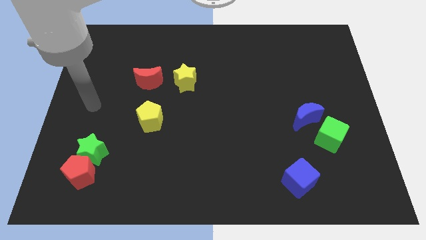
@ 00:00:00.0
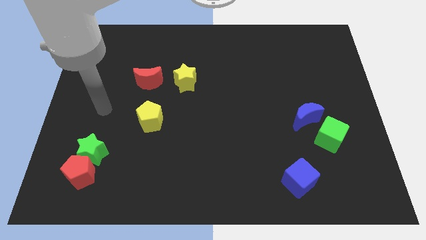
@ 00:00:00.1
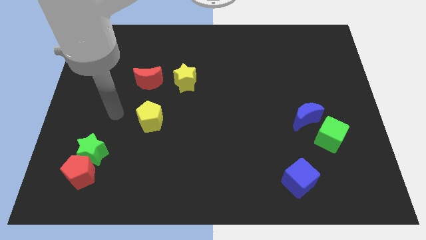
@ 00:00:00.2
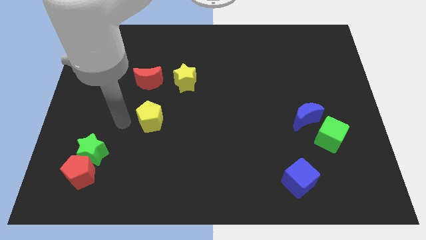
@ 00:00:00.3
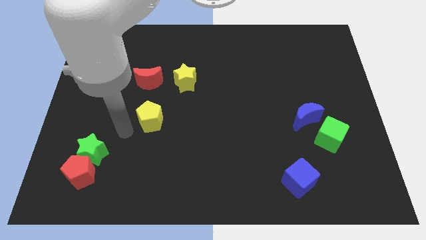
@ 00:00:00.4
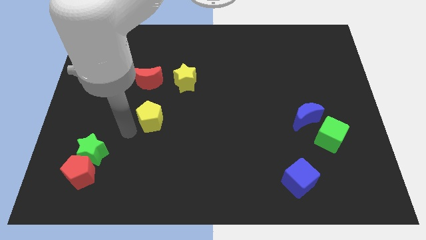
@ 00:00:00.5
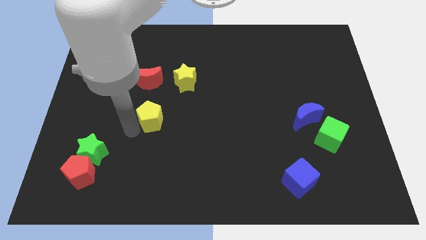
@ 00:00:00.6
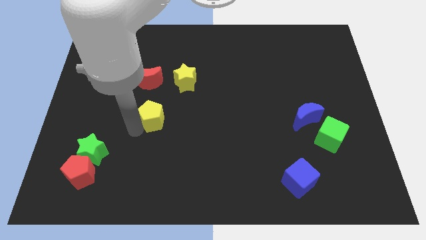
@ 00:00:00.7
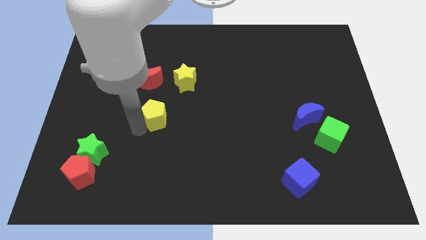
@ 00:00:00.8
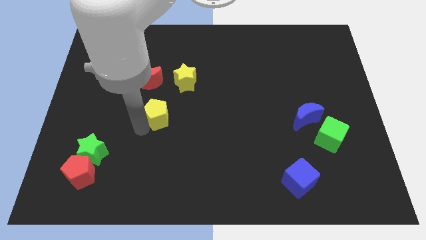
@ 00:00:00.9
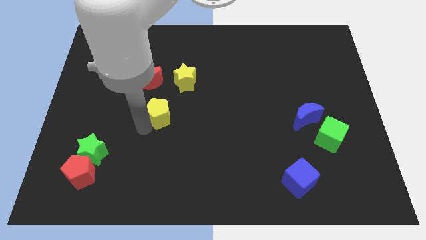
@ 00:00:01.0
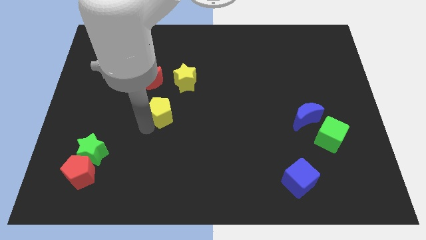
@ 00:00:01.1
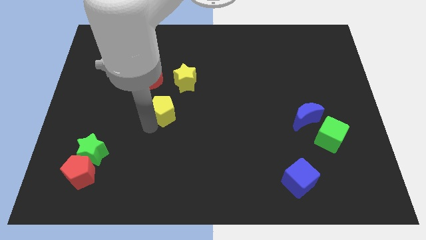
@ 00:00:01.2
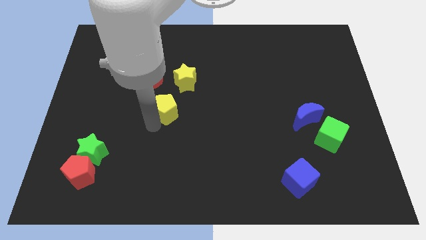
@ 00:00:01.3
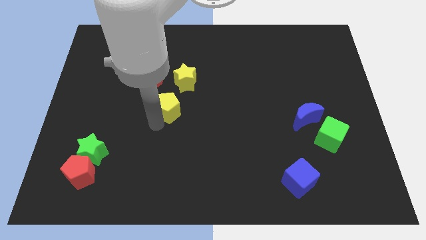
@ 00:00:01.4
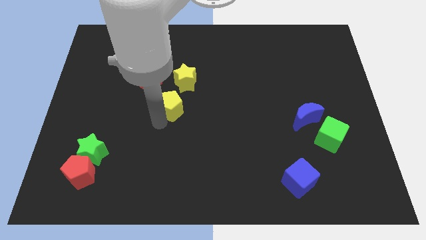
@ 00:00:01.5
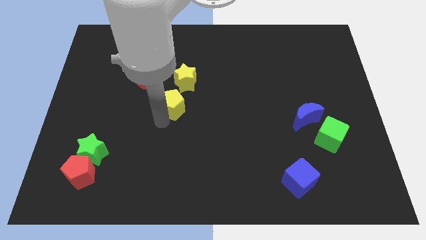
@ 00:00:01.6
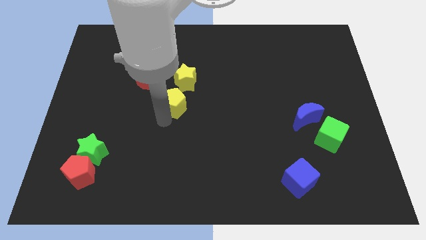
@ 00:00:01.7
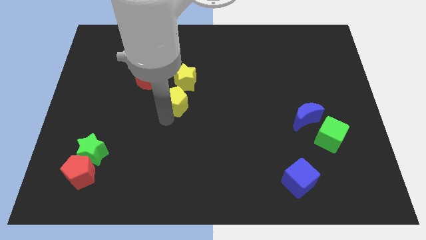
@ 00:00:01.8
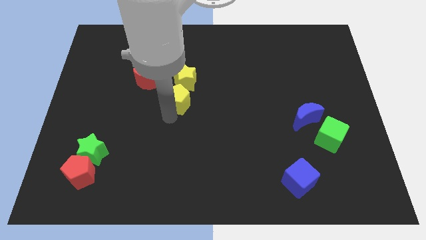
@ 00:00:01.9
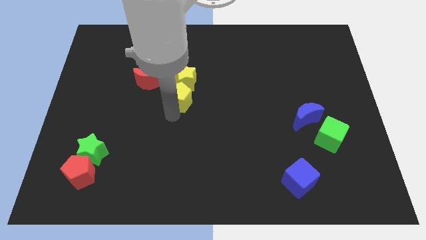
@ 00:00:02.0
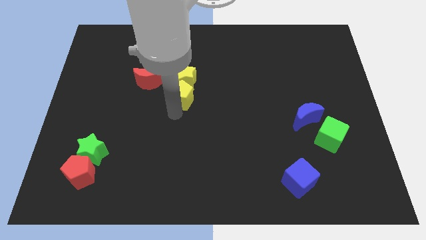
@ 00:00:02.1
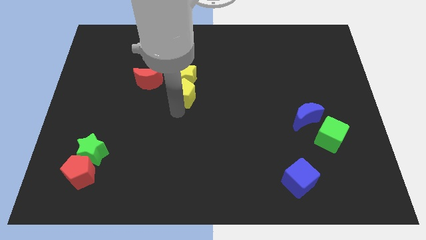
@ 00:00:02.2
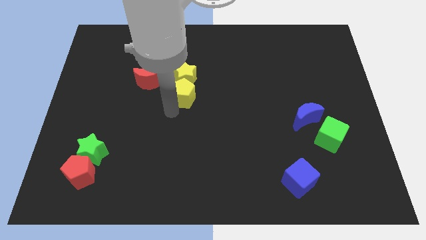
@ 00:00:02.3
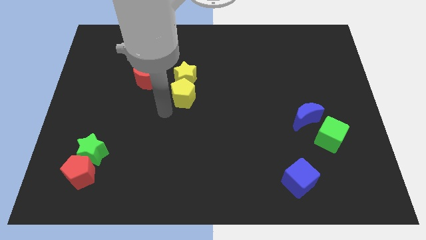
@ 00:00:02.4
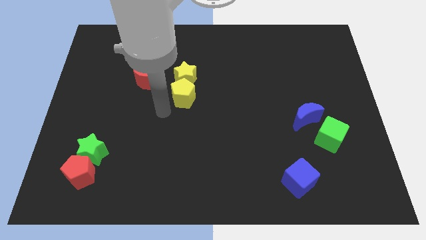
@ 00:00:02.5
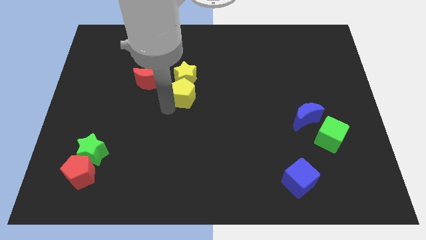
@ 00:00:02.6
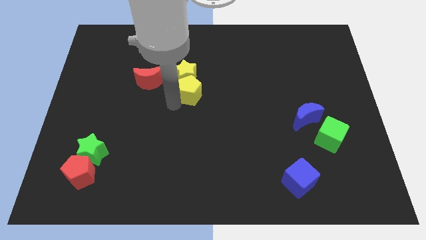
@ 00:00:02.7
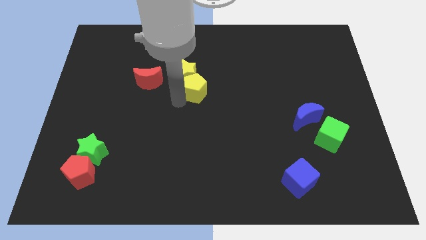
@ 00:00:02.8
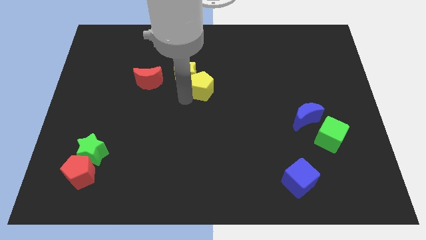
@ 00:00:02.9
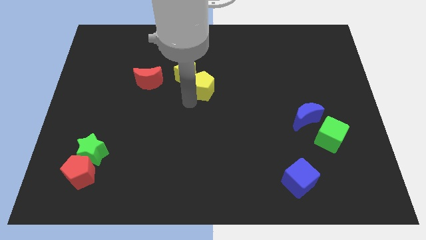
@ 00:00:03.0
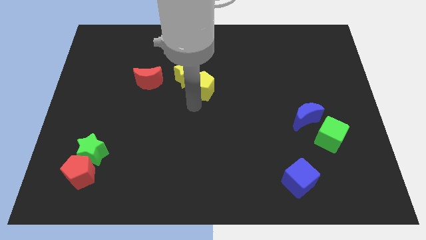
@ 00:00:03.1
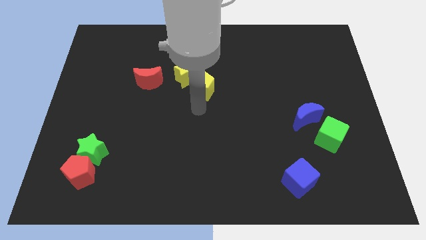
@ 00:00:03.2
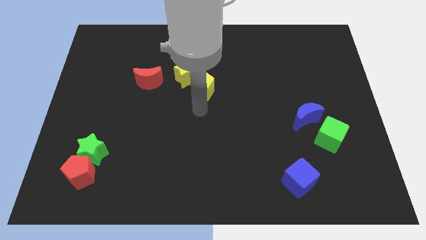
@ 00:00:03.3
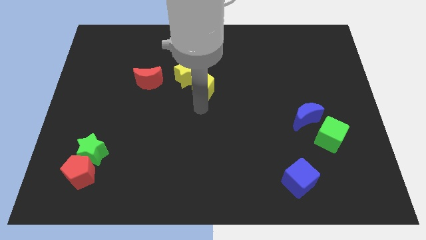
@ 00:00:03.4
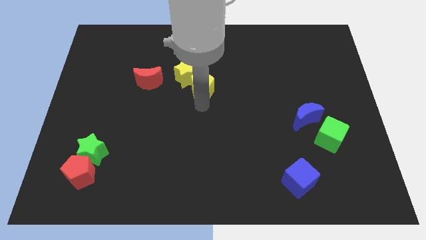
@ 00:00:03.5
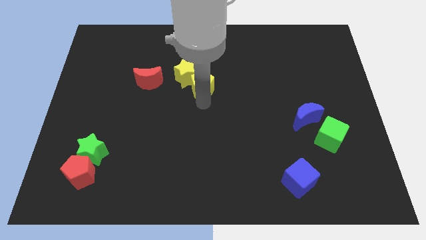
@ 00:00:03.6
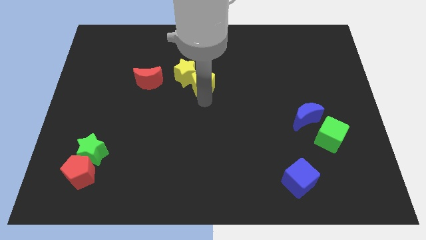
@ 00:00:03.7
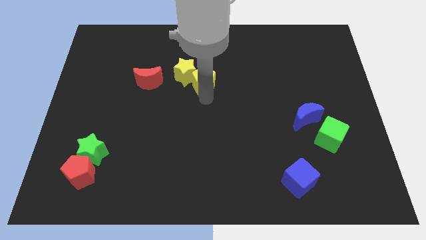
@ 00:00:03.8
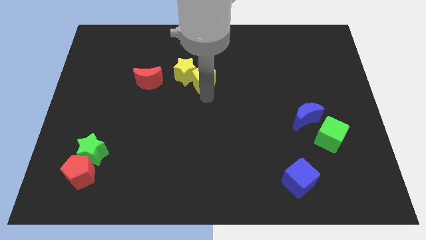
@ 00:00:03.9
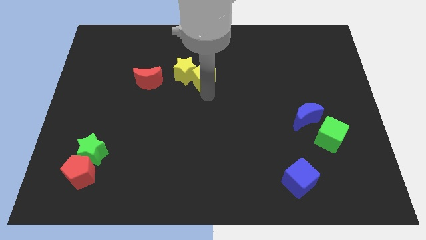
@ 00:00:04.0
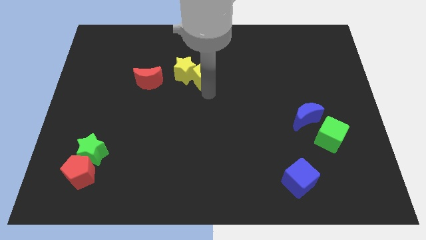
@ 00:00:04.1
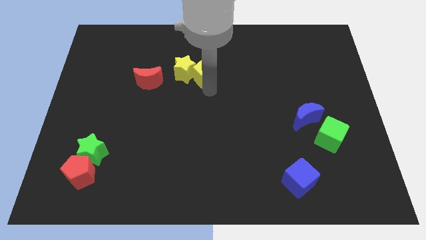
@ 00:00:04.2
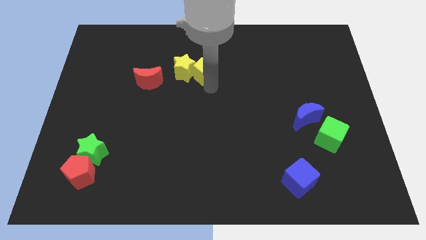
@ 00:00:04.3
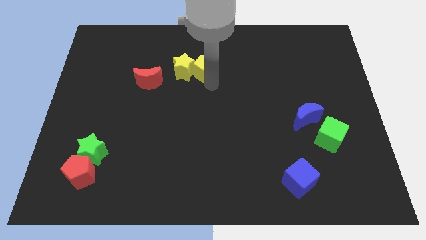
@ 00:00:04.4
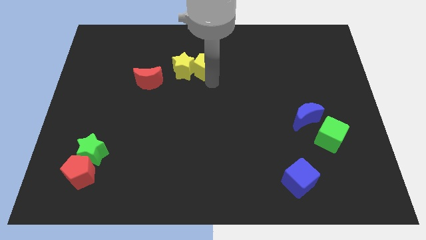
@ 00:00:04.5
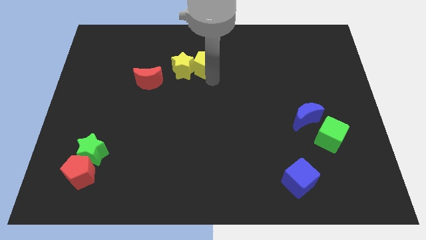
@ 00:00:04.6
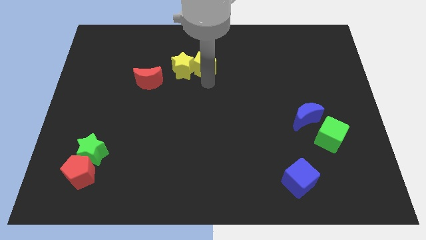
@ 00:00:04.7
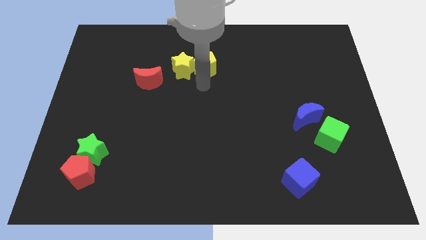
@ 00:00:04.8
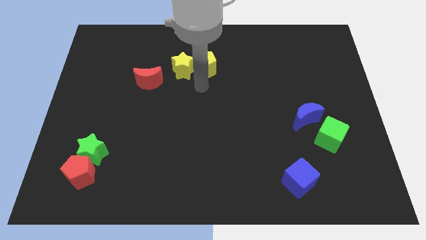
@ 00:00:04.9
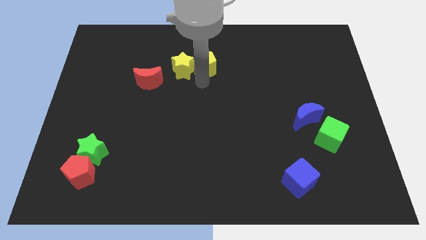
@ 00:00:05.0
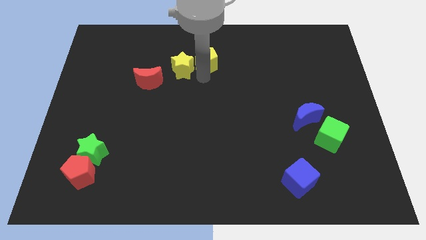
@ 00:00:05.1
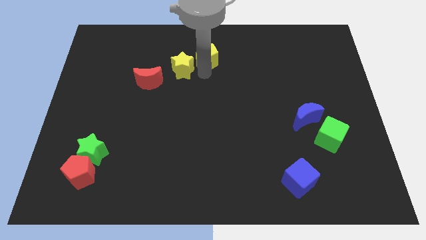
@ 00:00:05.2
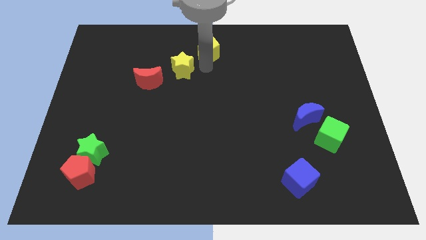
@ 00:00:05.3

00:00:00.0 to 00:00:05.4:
push the yellow pentagon to the top

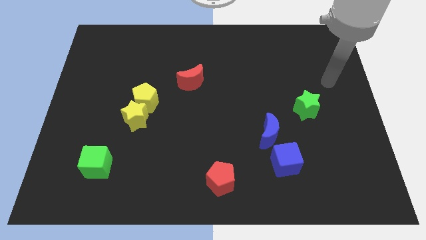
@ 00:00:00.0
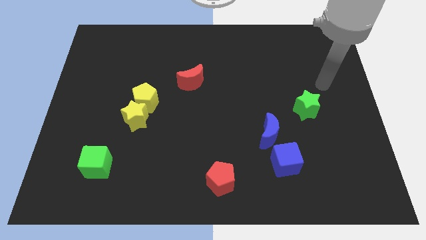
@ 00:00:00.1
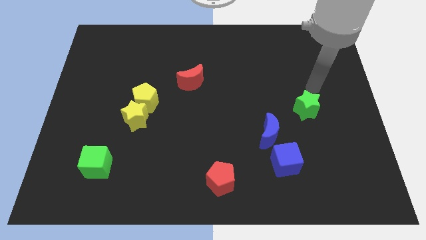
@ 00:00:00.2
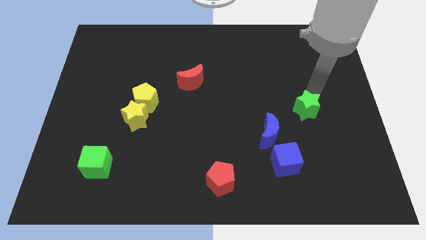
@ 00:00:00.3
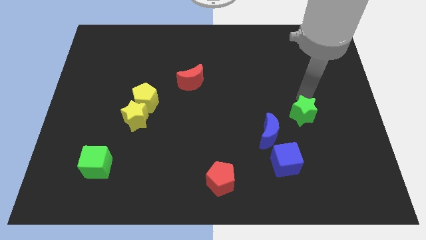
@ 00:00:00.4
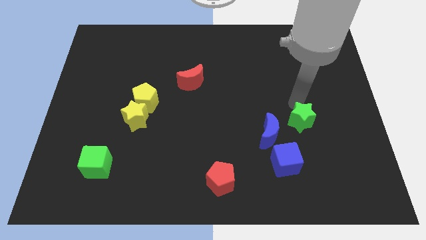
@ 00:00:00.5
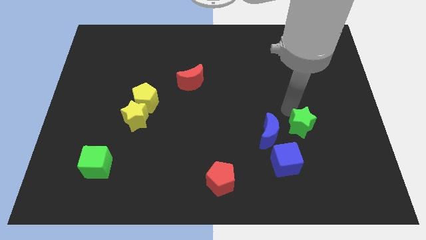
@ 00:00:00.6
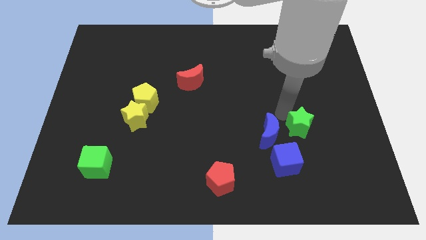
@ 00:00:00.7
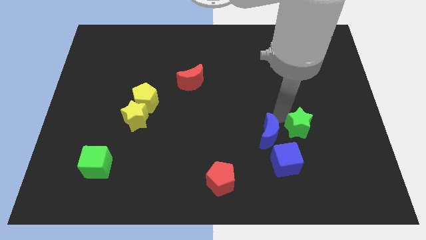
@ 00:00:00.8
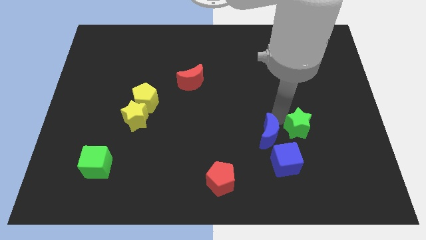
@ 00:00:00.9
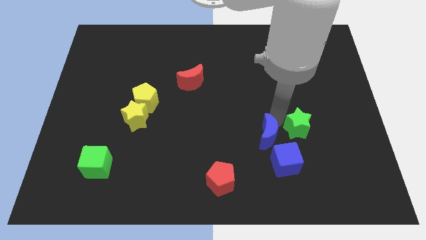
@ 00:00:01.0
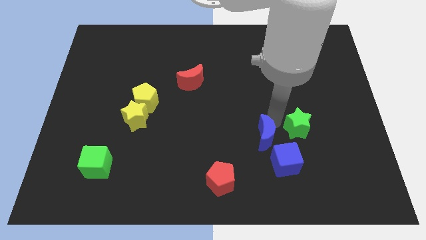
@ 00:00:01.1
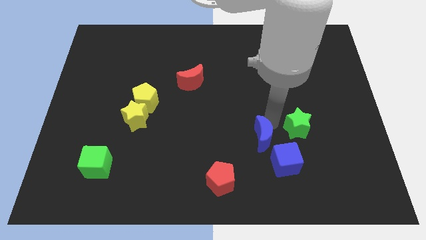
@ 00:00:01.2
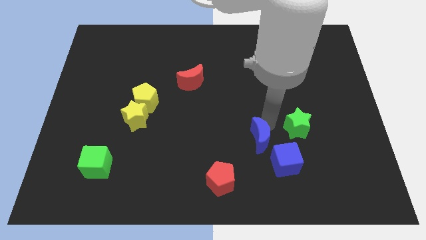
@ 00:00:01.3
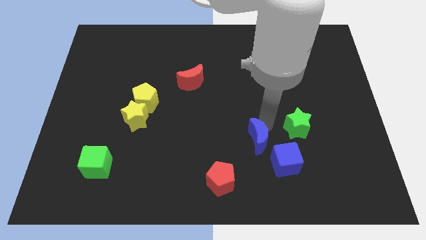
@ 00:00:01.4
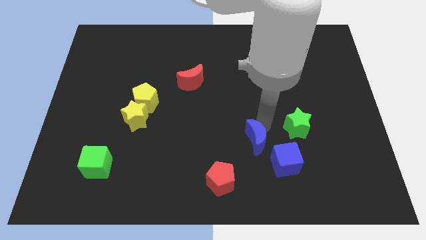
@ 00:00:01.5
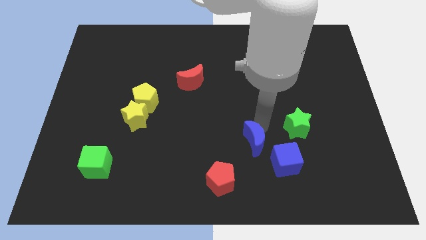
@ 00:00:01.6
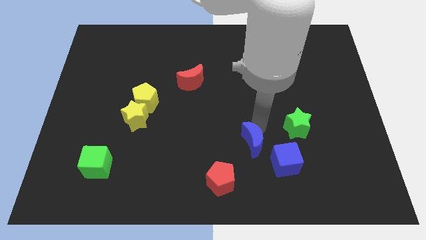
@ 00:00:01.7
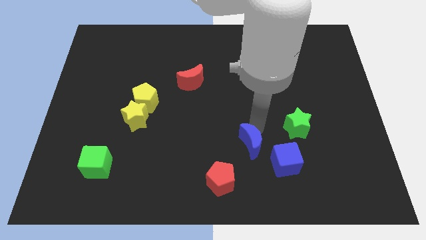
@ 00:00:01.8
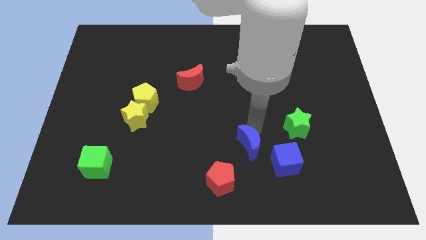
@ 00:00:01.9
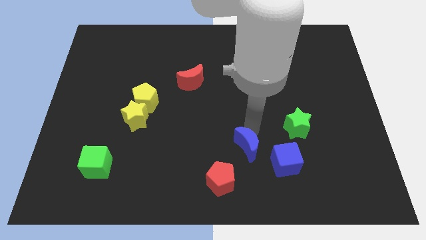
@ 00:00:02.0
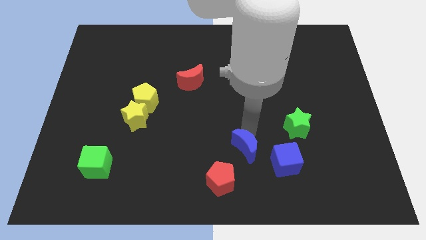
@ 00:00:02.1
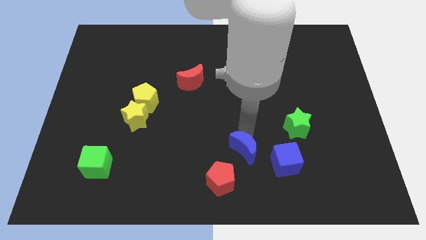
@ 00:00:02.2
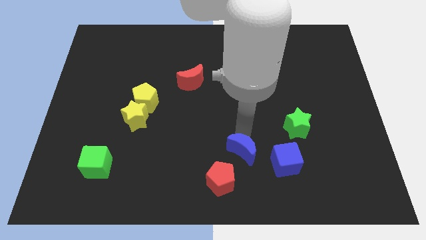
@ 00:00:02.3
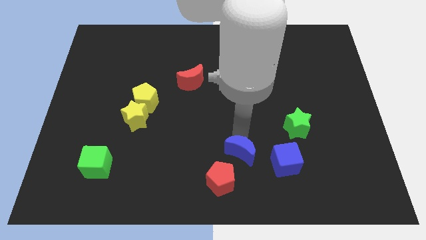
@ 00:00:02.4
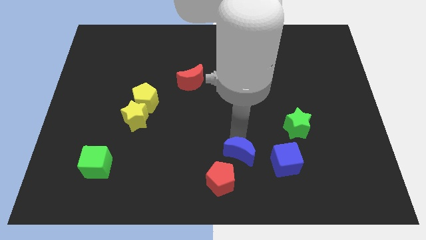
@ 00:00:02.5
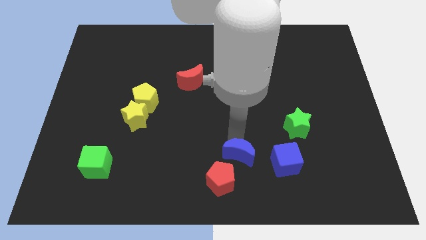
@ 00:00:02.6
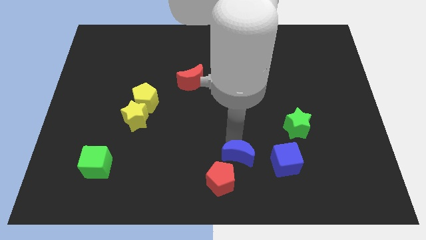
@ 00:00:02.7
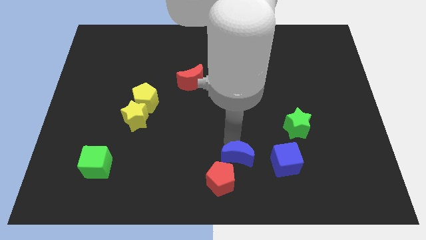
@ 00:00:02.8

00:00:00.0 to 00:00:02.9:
slide the blue moon to the bottom
